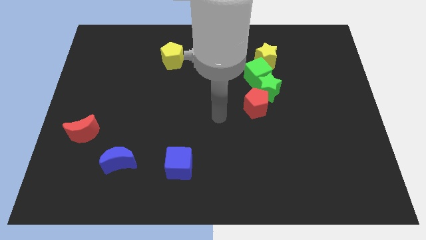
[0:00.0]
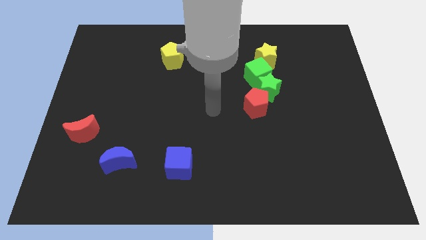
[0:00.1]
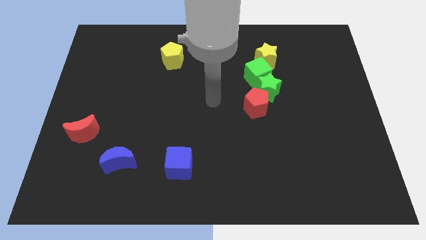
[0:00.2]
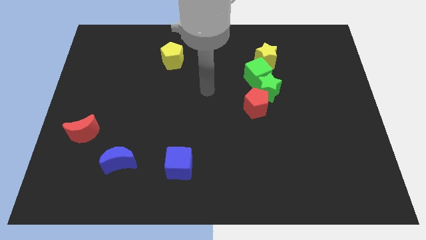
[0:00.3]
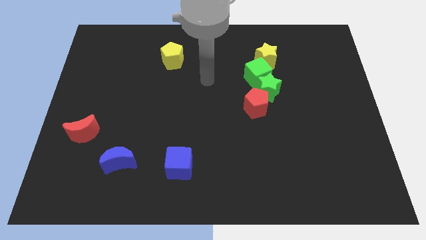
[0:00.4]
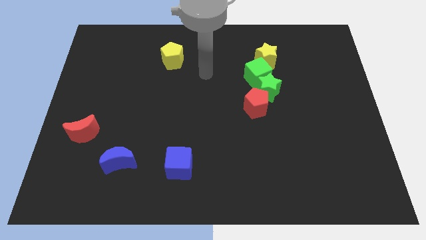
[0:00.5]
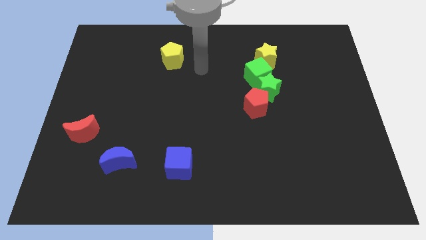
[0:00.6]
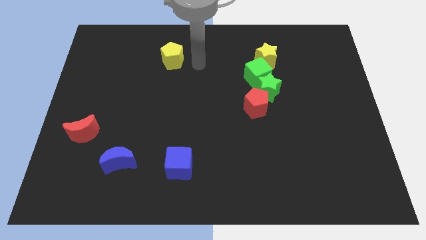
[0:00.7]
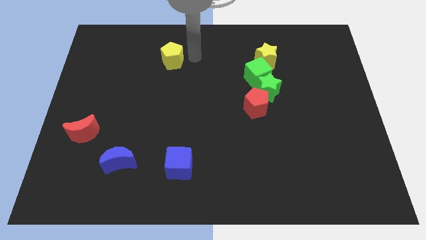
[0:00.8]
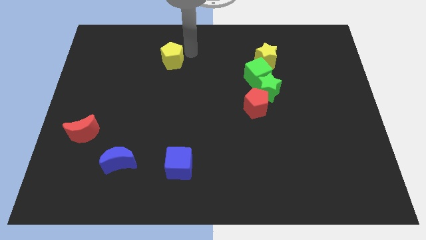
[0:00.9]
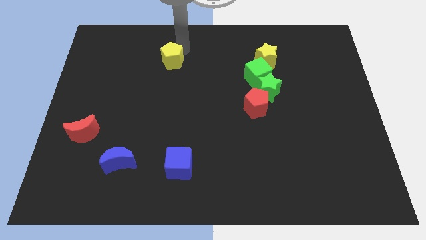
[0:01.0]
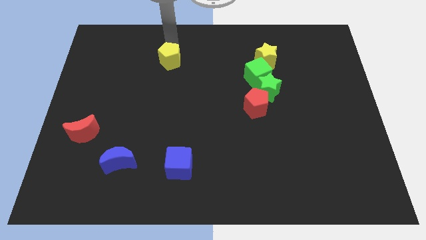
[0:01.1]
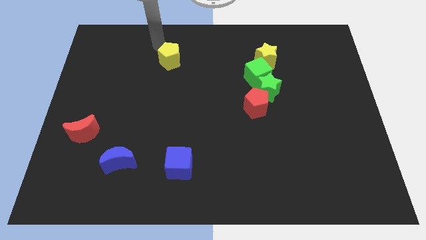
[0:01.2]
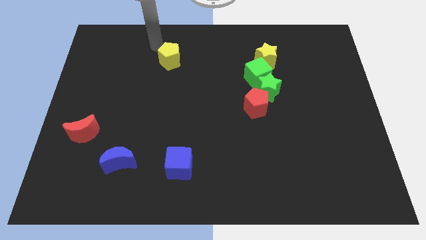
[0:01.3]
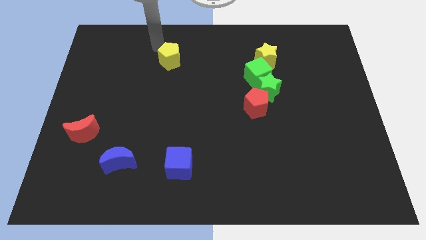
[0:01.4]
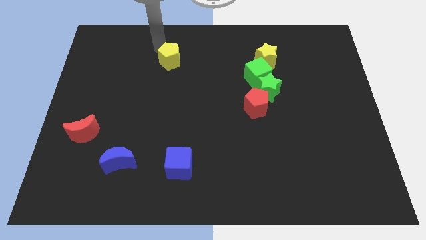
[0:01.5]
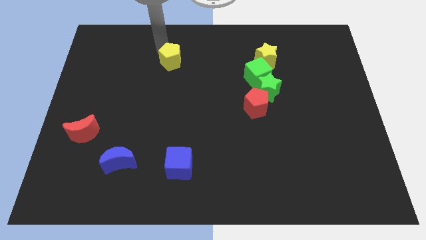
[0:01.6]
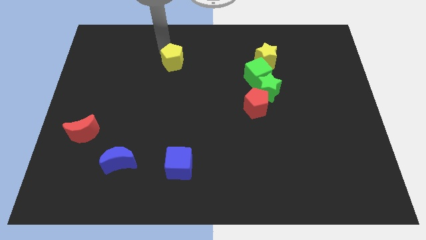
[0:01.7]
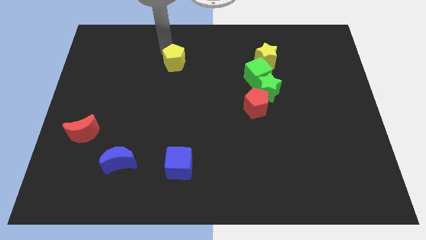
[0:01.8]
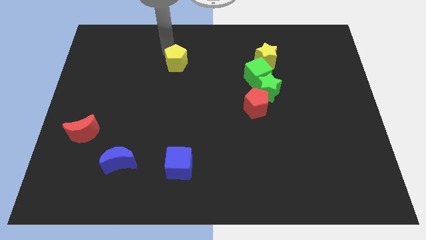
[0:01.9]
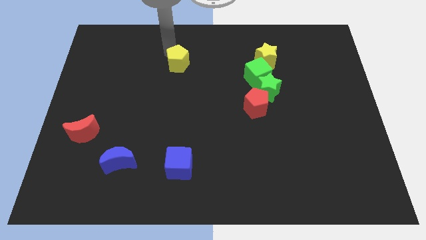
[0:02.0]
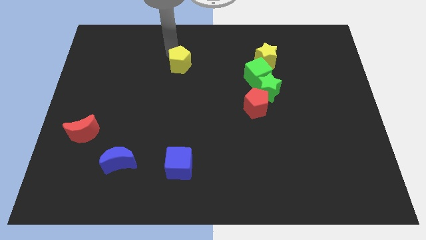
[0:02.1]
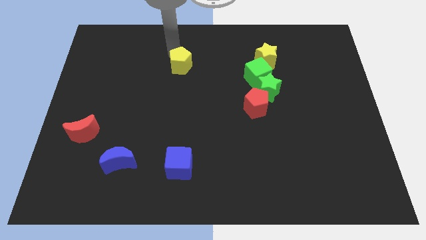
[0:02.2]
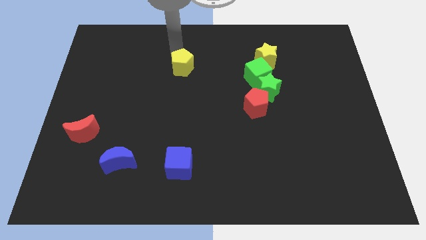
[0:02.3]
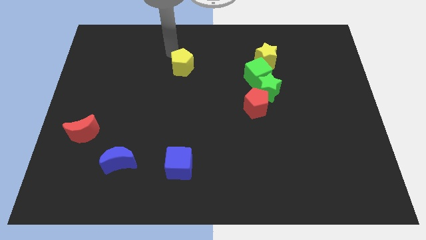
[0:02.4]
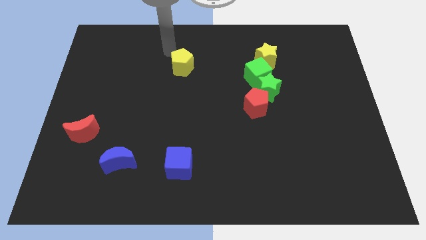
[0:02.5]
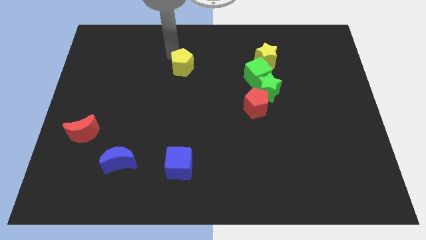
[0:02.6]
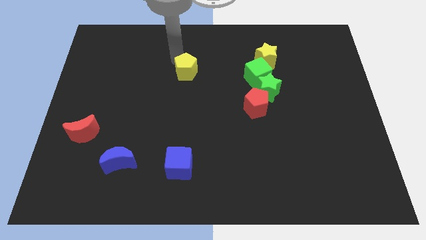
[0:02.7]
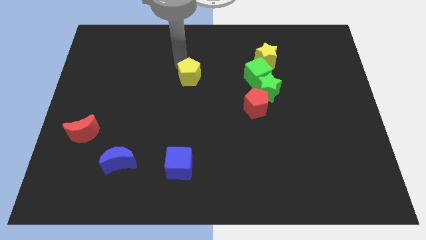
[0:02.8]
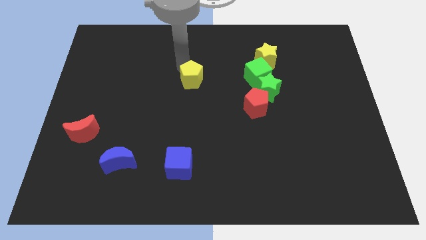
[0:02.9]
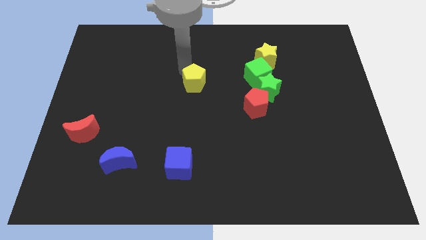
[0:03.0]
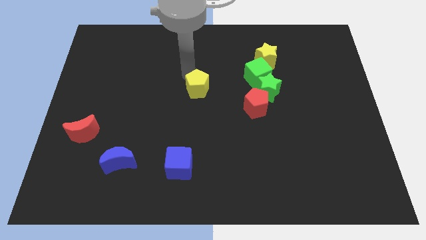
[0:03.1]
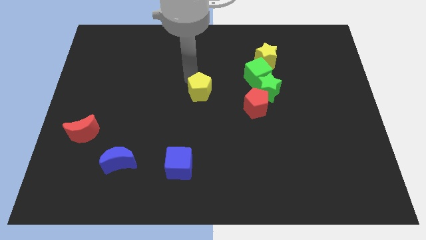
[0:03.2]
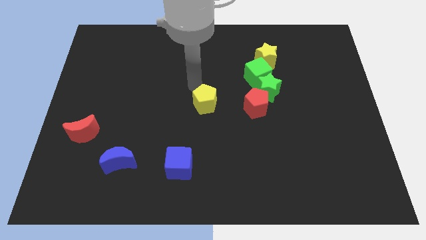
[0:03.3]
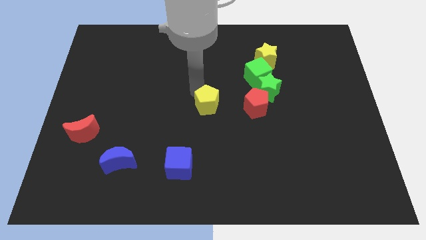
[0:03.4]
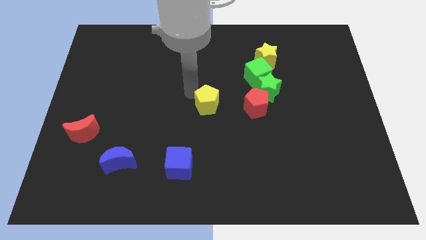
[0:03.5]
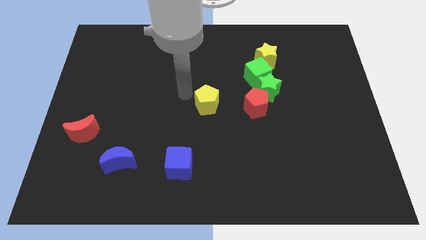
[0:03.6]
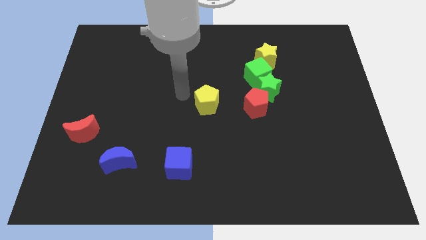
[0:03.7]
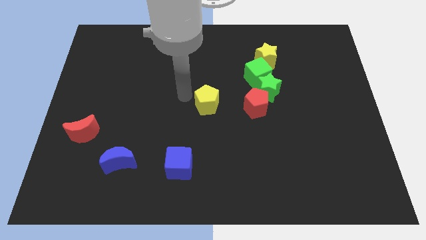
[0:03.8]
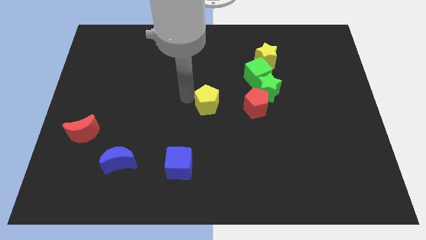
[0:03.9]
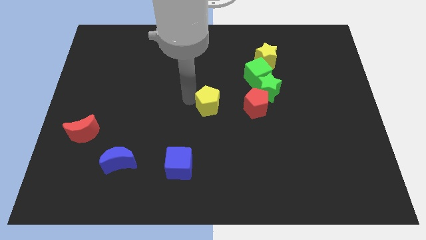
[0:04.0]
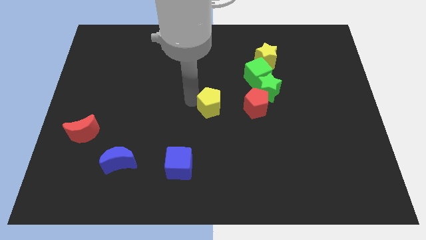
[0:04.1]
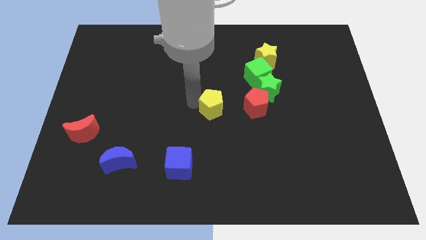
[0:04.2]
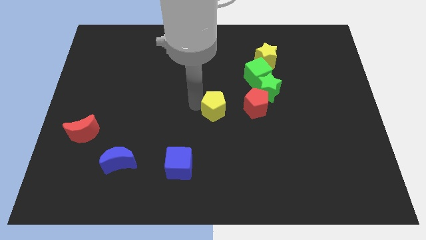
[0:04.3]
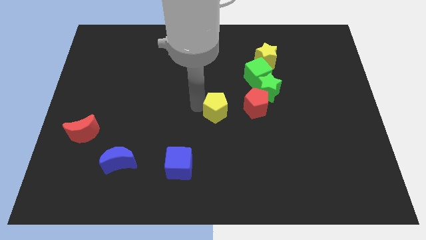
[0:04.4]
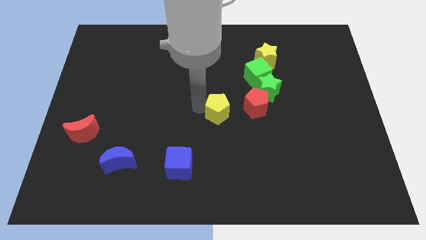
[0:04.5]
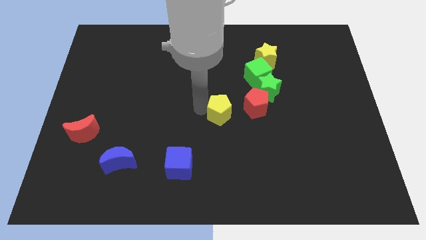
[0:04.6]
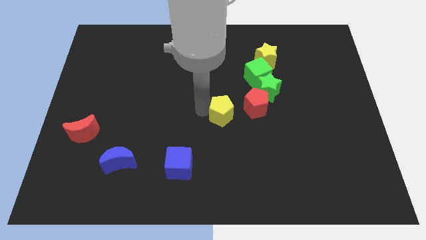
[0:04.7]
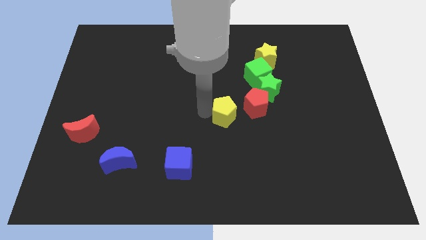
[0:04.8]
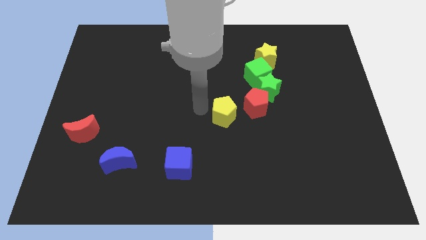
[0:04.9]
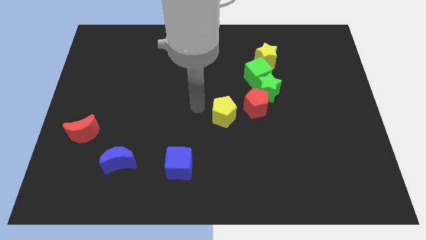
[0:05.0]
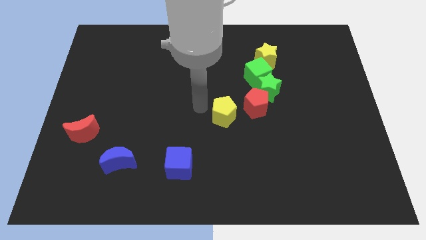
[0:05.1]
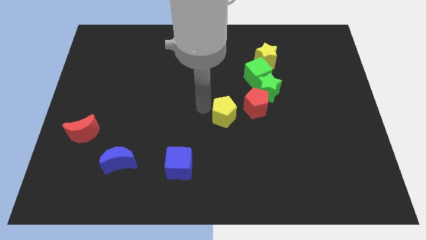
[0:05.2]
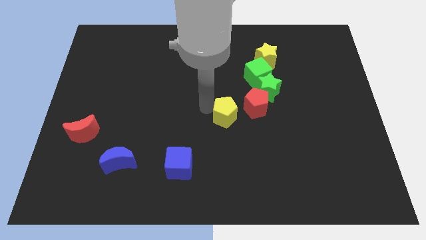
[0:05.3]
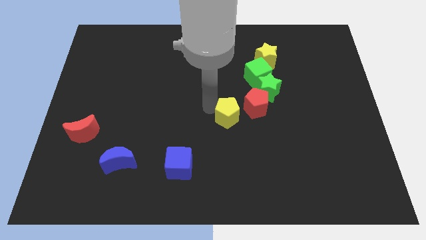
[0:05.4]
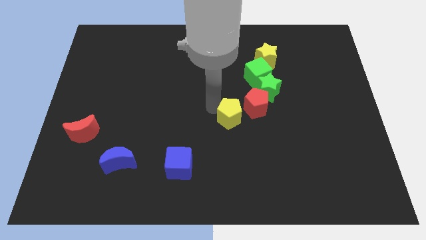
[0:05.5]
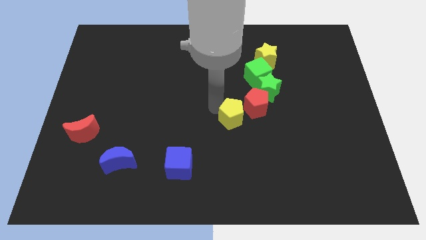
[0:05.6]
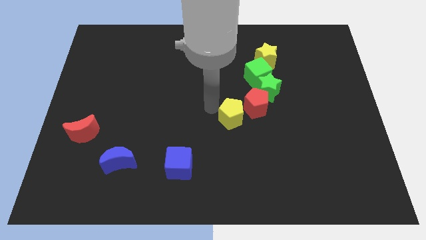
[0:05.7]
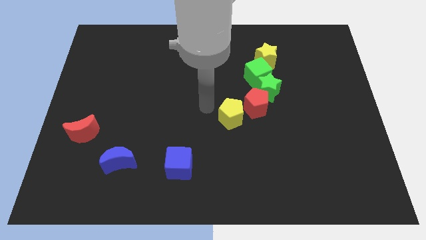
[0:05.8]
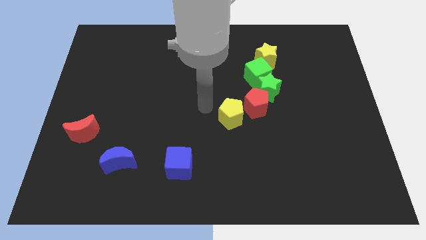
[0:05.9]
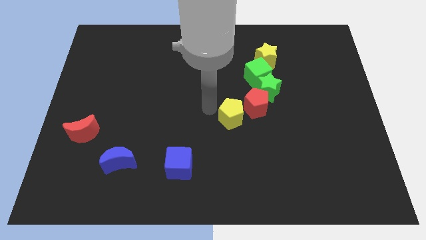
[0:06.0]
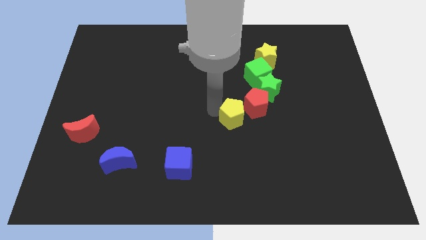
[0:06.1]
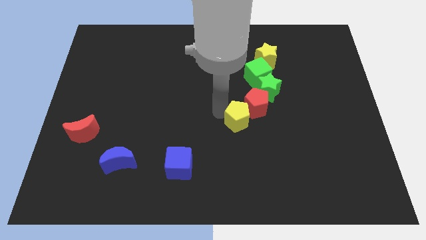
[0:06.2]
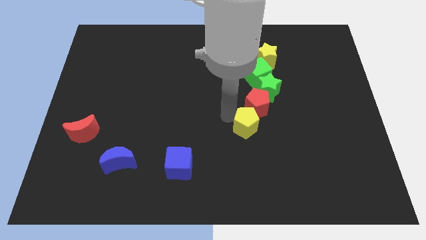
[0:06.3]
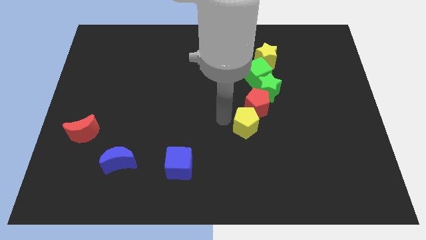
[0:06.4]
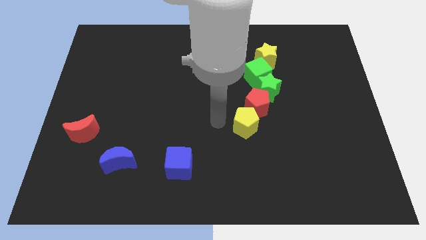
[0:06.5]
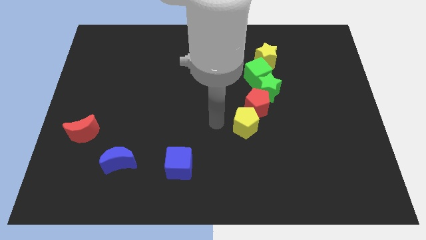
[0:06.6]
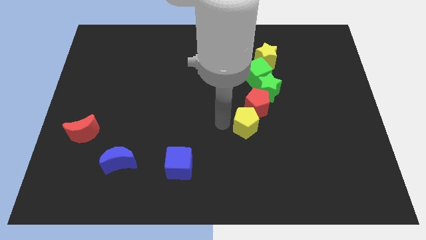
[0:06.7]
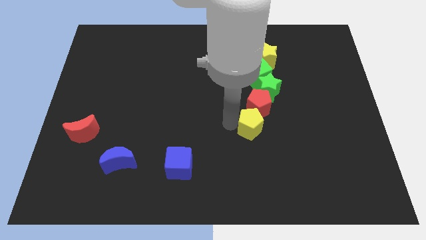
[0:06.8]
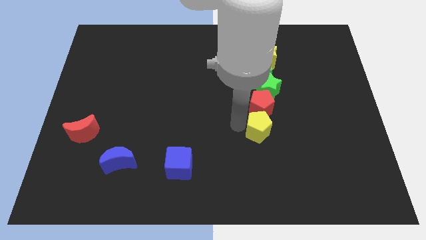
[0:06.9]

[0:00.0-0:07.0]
slide the yellow pentagon to the bottom side of the green star

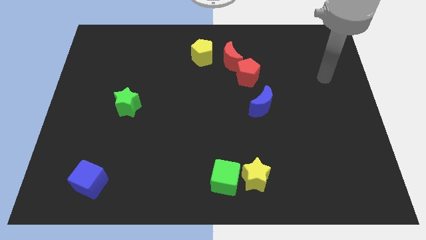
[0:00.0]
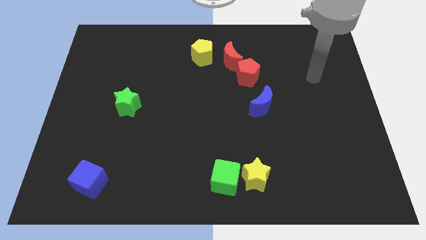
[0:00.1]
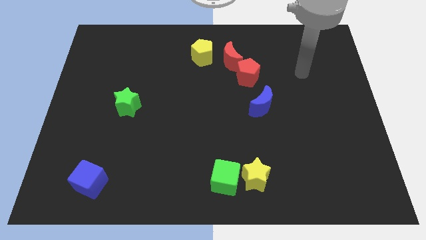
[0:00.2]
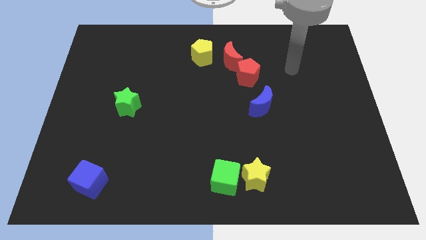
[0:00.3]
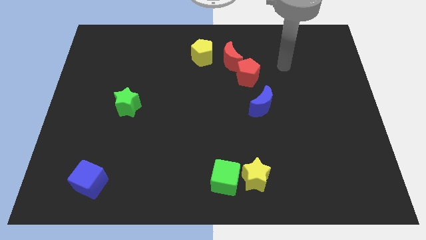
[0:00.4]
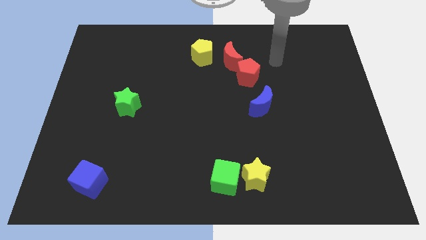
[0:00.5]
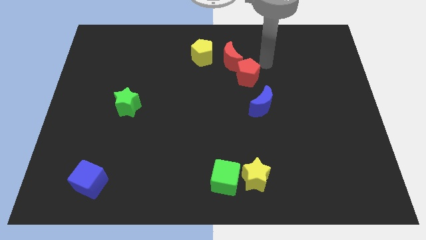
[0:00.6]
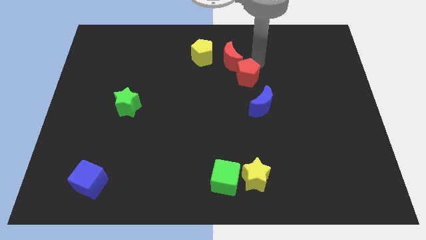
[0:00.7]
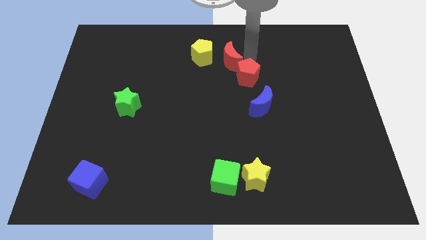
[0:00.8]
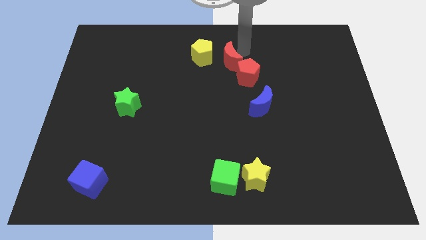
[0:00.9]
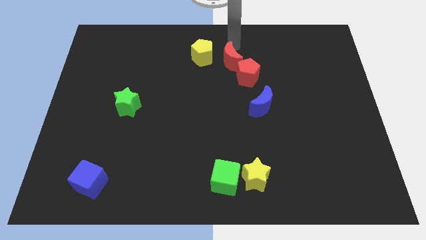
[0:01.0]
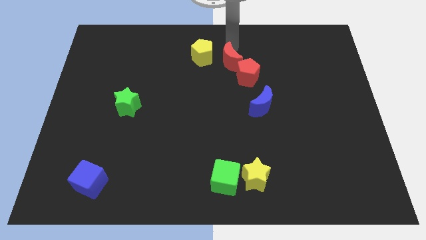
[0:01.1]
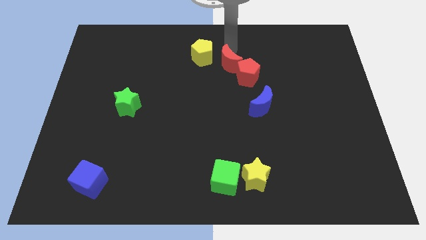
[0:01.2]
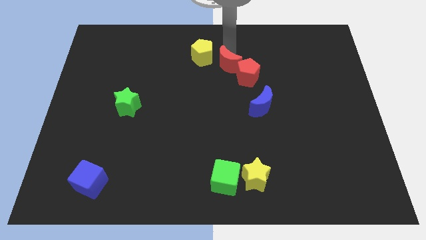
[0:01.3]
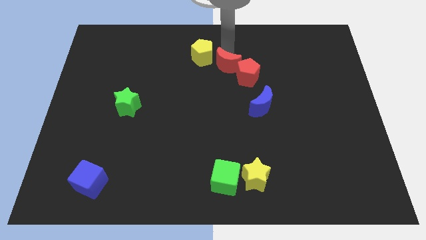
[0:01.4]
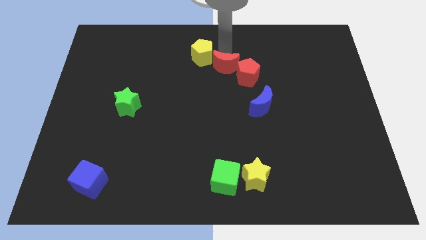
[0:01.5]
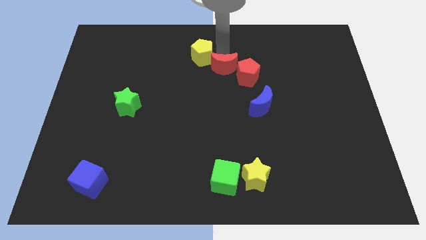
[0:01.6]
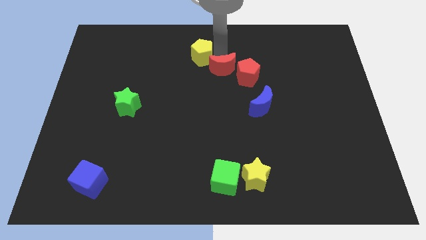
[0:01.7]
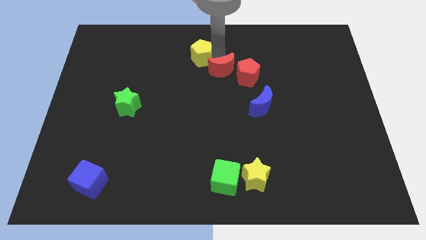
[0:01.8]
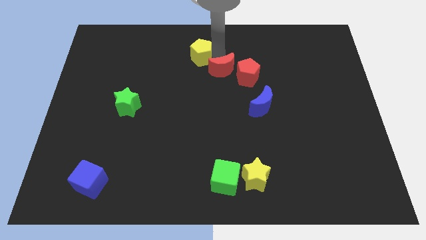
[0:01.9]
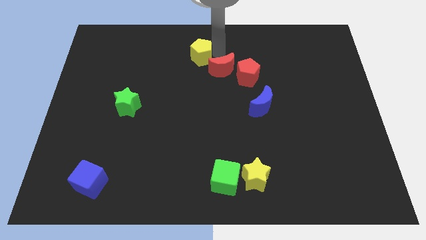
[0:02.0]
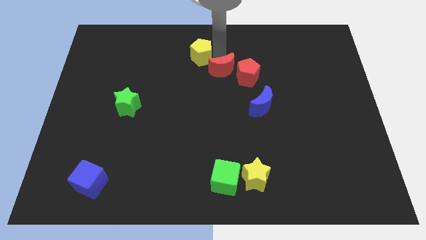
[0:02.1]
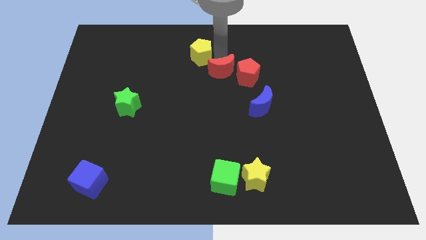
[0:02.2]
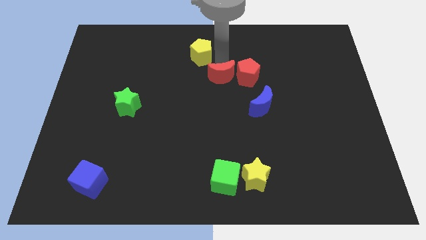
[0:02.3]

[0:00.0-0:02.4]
move the red moon diagonally down and to the left of the red pentagon
